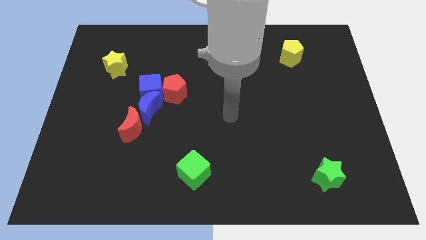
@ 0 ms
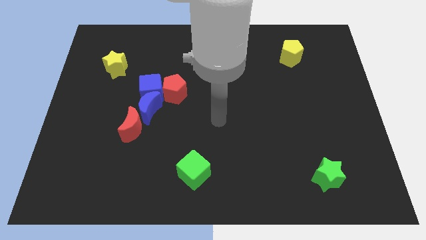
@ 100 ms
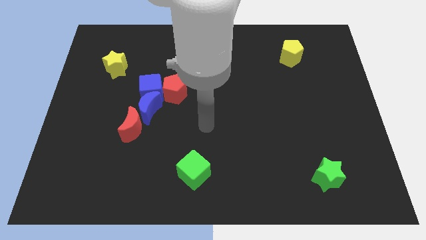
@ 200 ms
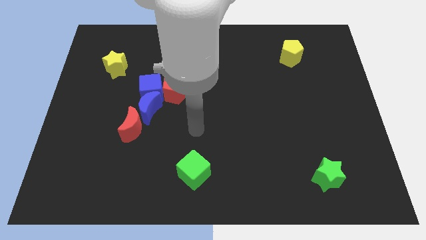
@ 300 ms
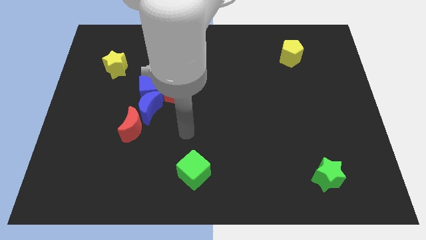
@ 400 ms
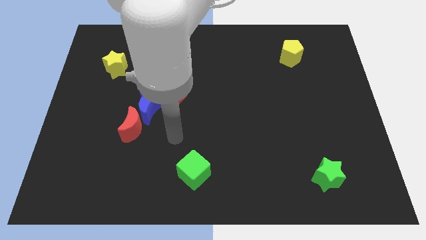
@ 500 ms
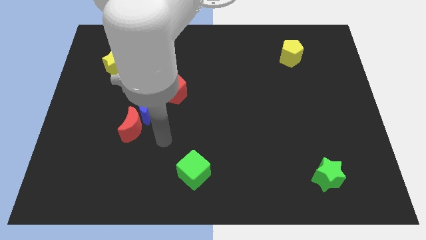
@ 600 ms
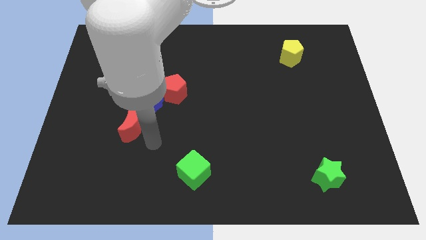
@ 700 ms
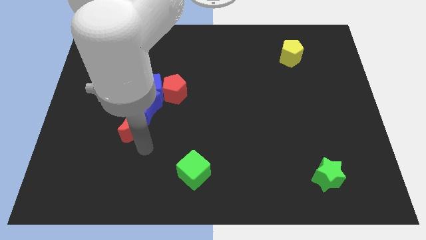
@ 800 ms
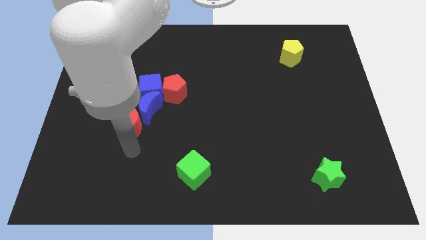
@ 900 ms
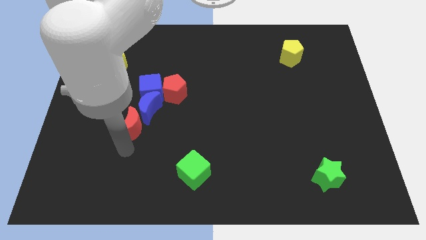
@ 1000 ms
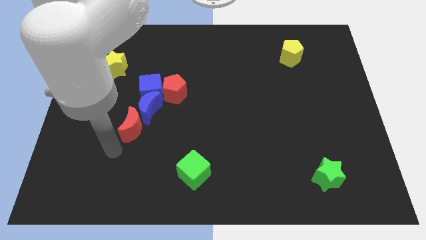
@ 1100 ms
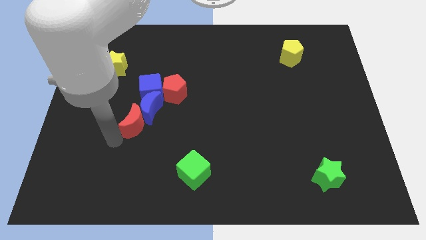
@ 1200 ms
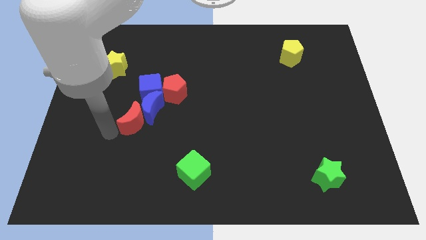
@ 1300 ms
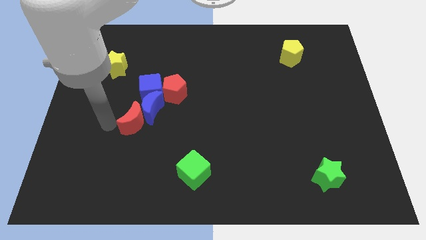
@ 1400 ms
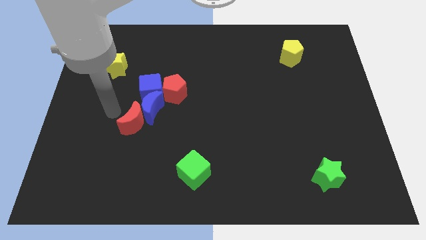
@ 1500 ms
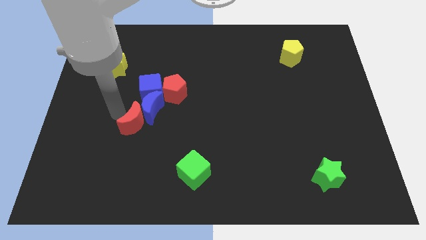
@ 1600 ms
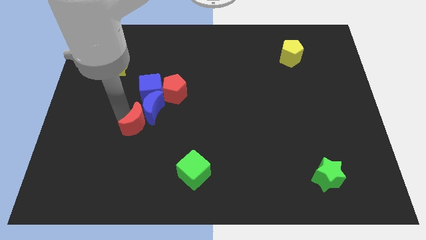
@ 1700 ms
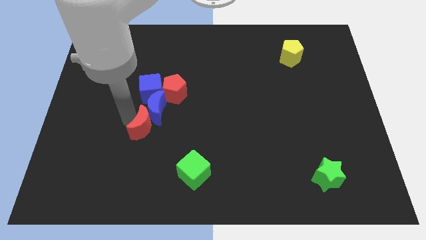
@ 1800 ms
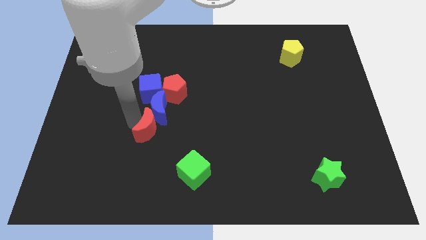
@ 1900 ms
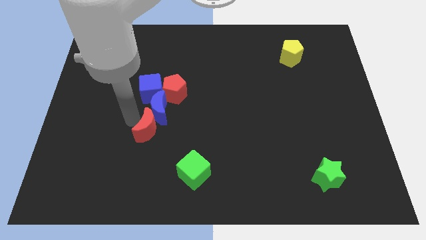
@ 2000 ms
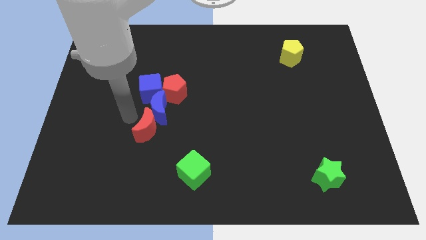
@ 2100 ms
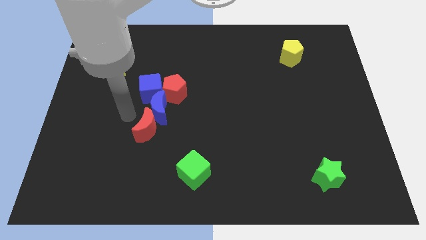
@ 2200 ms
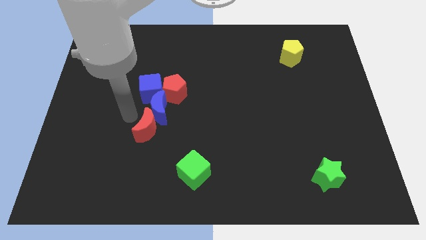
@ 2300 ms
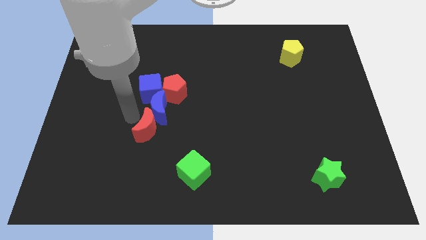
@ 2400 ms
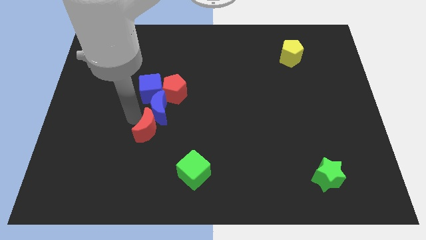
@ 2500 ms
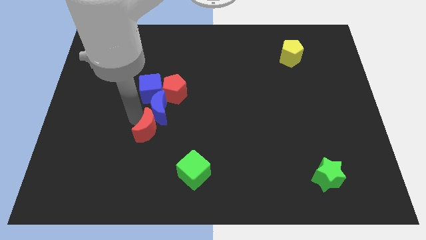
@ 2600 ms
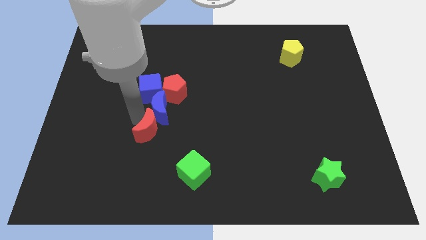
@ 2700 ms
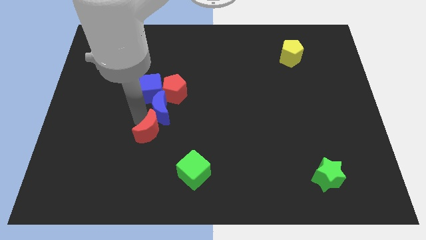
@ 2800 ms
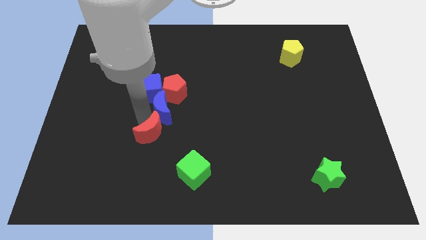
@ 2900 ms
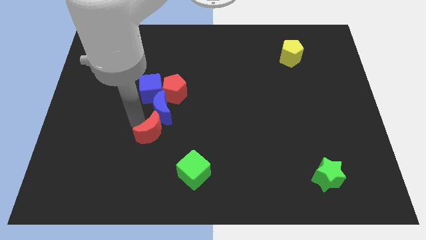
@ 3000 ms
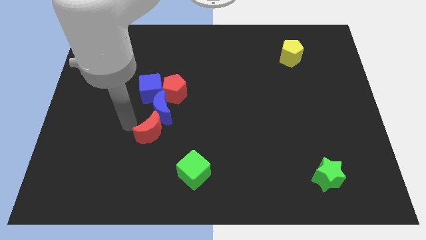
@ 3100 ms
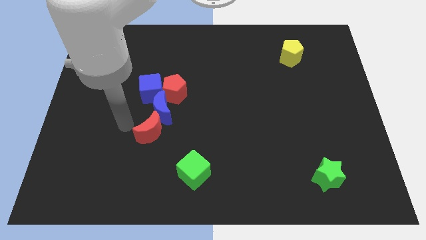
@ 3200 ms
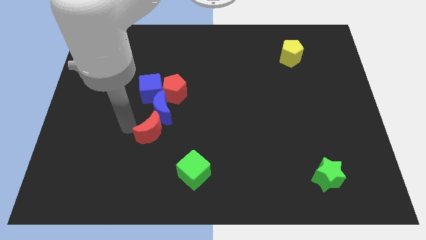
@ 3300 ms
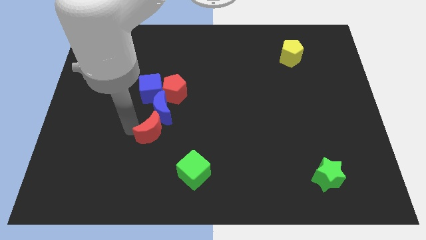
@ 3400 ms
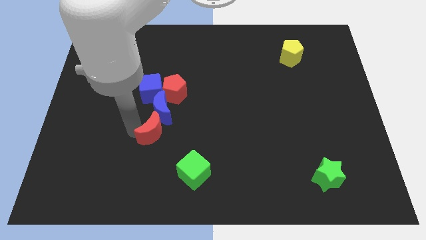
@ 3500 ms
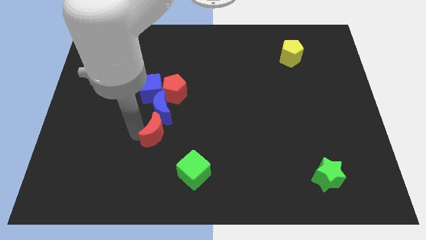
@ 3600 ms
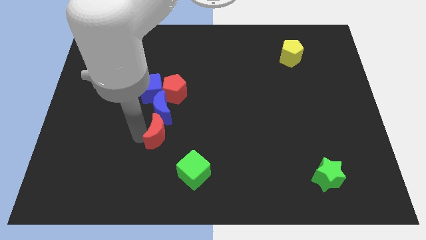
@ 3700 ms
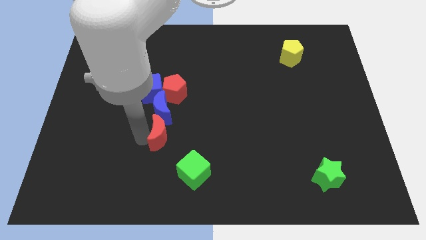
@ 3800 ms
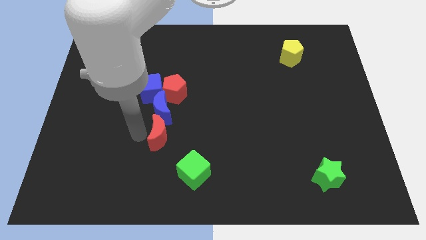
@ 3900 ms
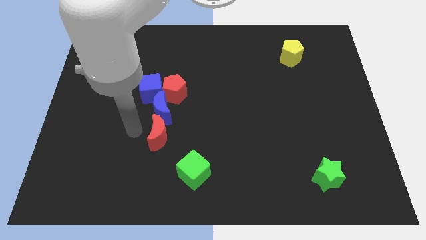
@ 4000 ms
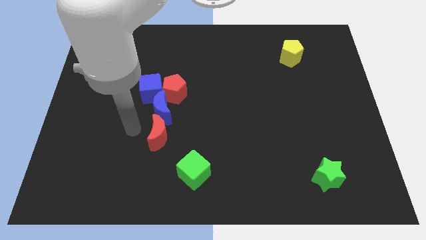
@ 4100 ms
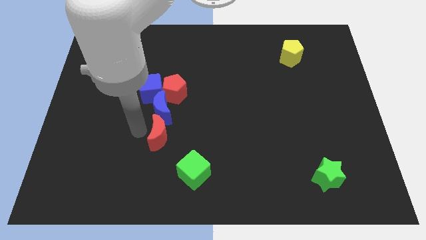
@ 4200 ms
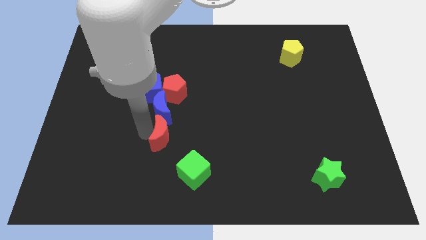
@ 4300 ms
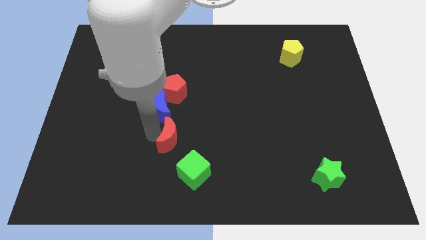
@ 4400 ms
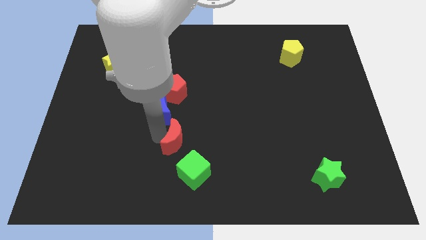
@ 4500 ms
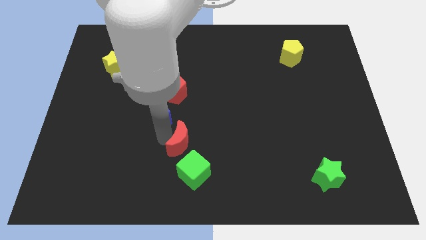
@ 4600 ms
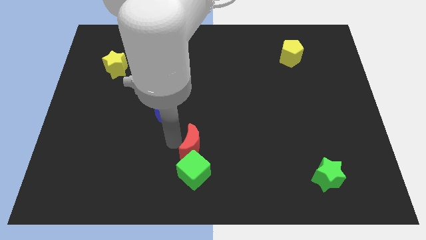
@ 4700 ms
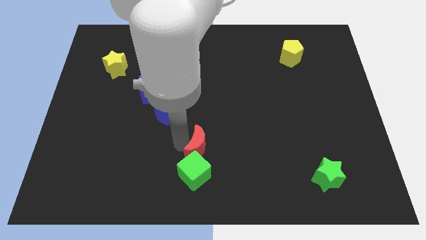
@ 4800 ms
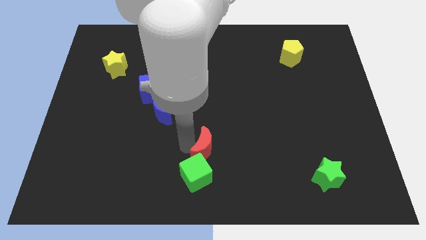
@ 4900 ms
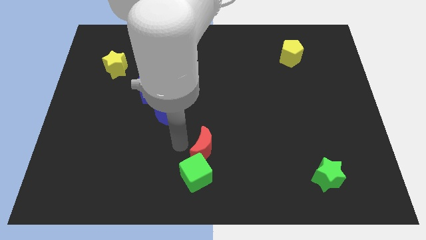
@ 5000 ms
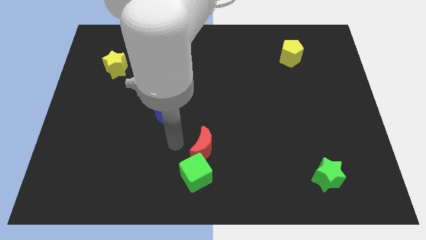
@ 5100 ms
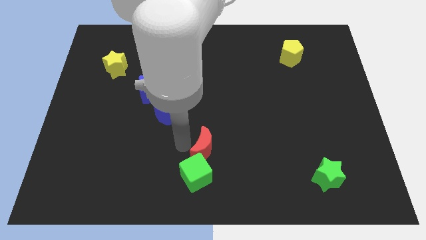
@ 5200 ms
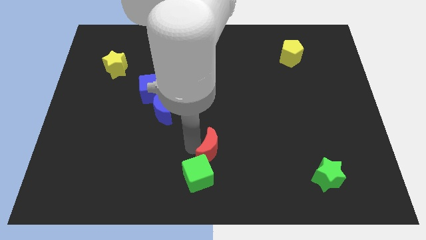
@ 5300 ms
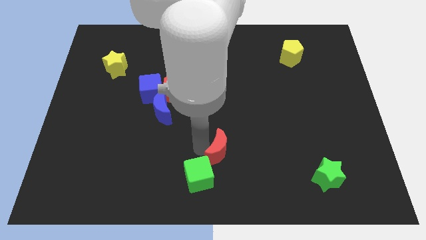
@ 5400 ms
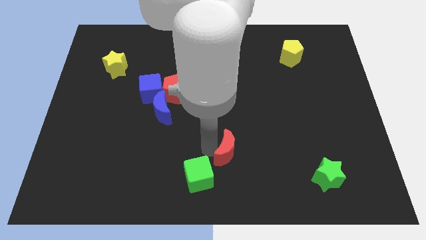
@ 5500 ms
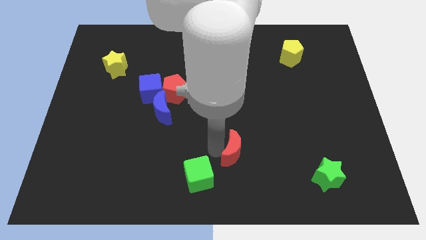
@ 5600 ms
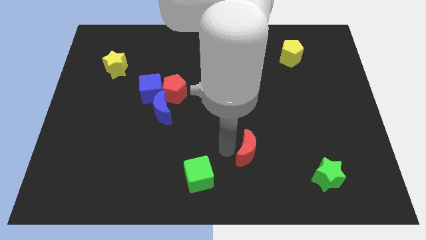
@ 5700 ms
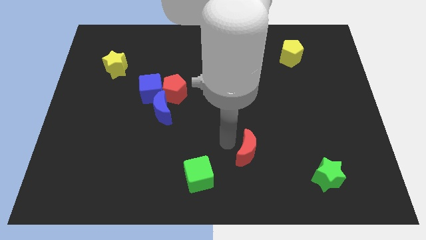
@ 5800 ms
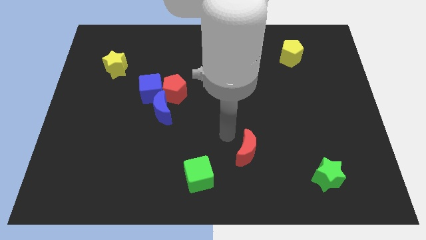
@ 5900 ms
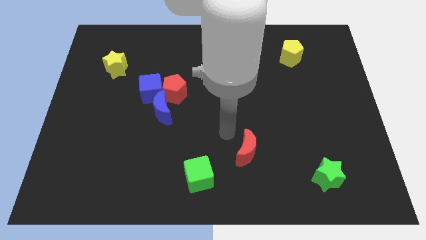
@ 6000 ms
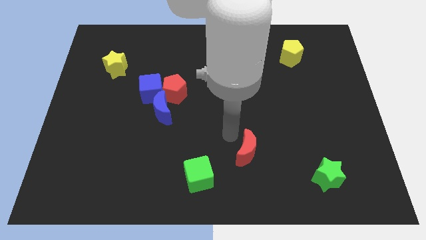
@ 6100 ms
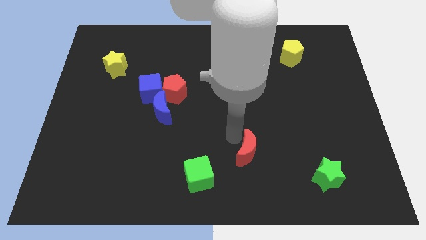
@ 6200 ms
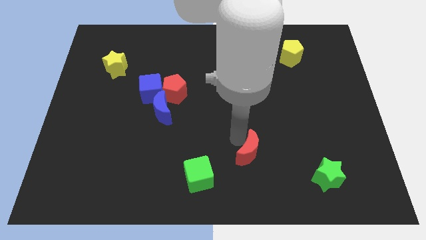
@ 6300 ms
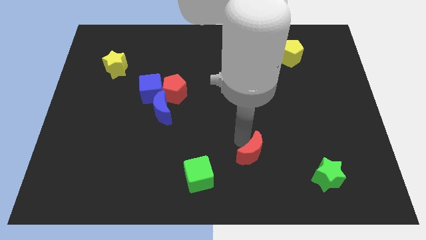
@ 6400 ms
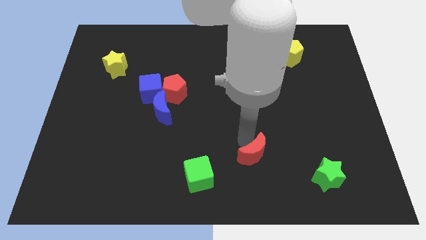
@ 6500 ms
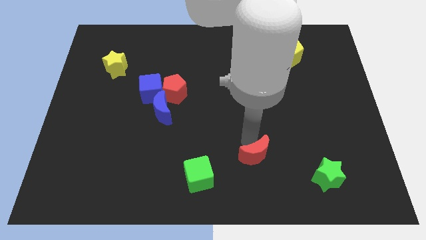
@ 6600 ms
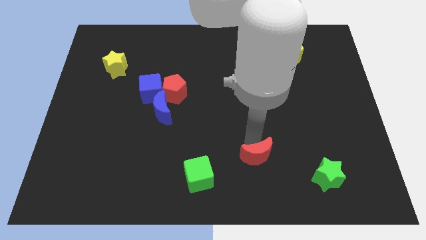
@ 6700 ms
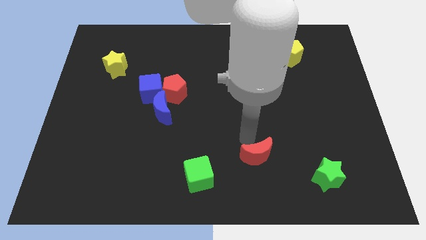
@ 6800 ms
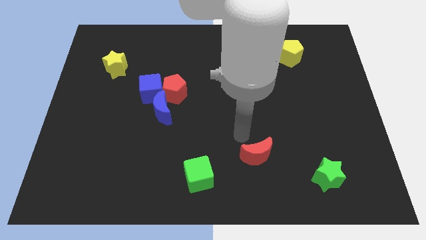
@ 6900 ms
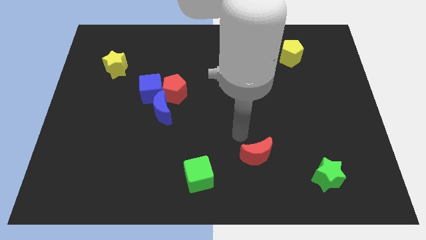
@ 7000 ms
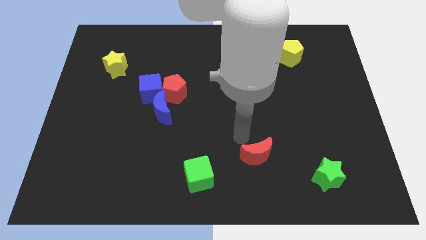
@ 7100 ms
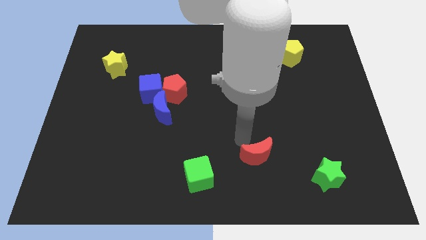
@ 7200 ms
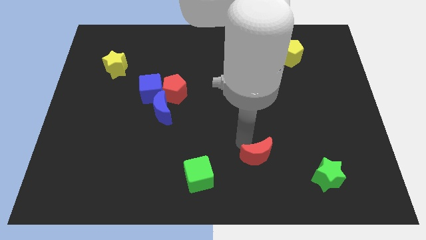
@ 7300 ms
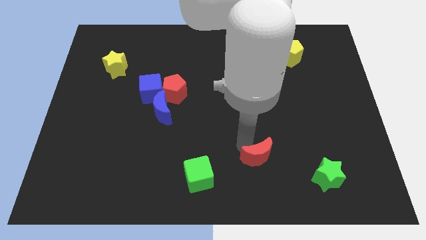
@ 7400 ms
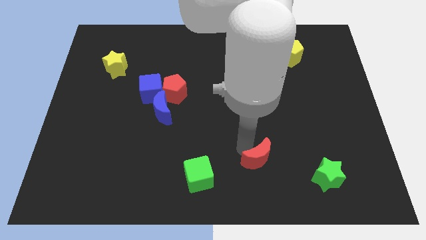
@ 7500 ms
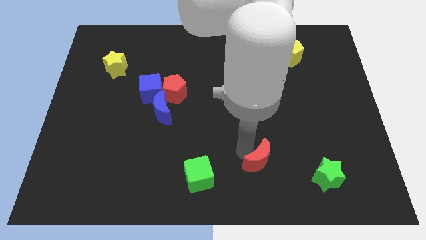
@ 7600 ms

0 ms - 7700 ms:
move the red moon to the left side of the green star

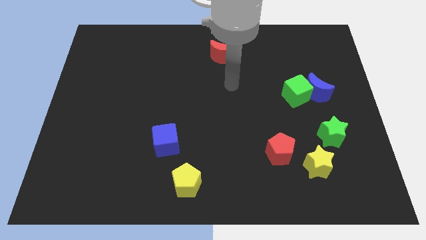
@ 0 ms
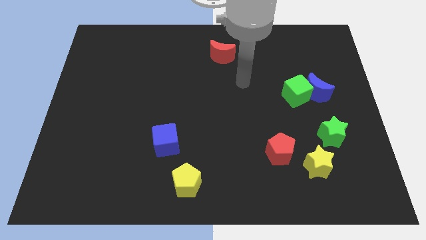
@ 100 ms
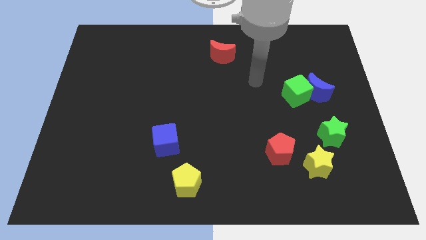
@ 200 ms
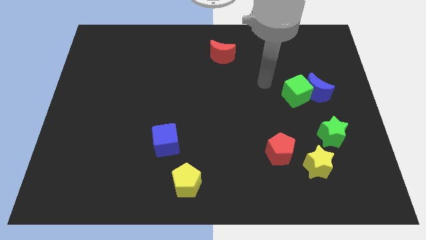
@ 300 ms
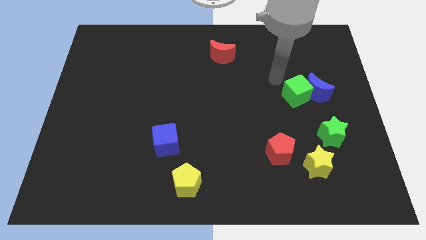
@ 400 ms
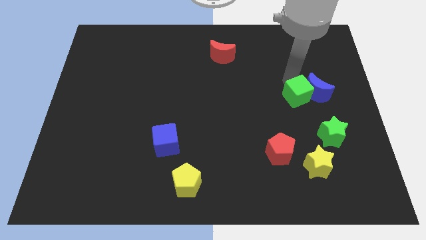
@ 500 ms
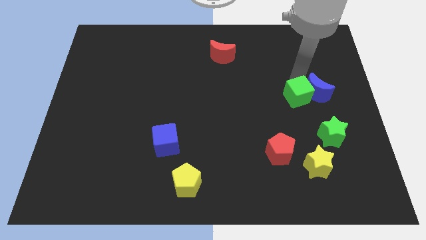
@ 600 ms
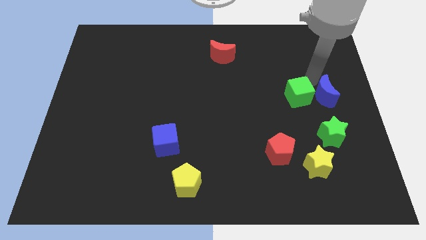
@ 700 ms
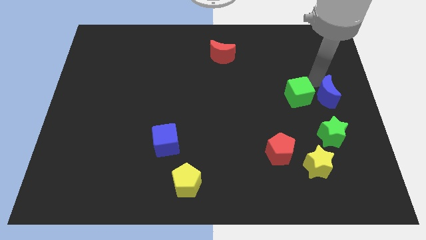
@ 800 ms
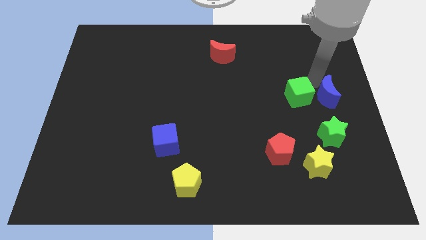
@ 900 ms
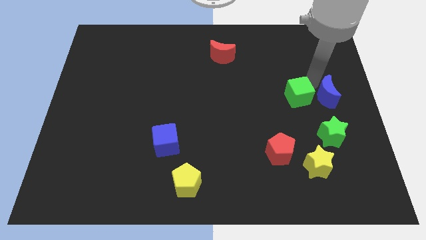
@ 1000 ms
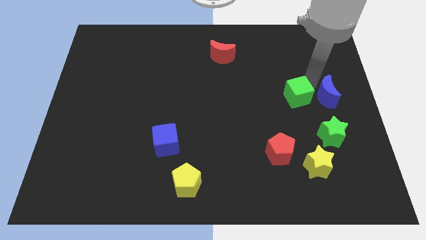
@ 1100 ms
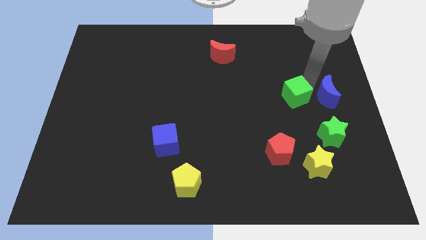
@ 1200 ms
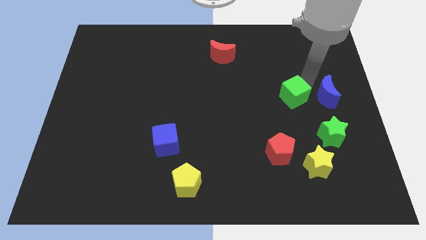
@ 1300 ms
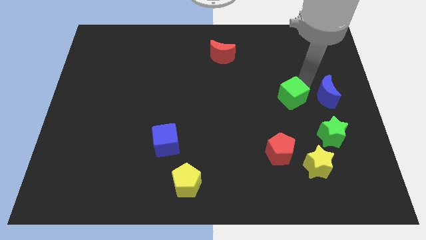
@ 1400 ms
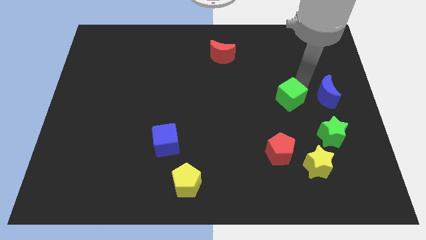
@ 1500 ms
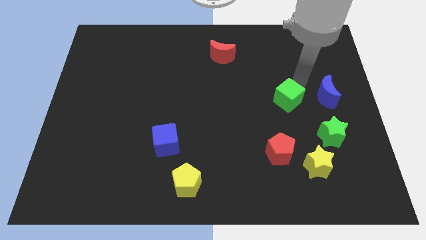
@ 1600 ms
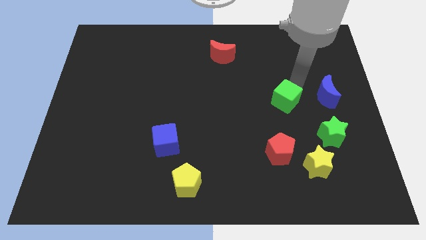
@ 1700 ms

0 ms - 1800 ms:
put the green cube to the top side of the red pentagon
